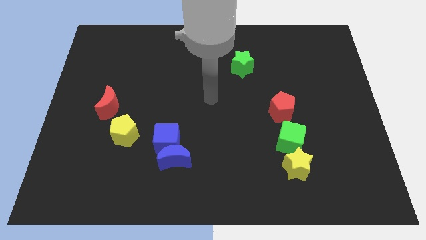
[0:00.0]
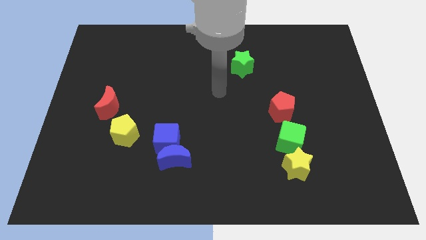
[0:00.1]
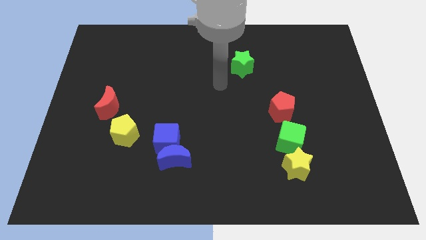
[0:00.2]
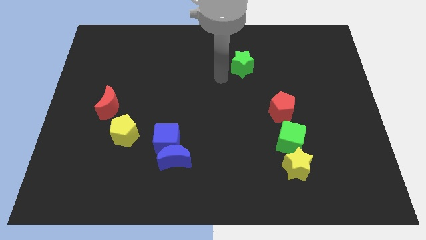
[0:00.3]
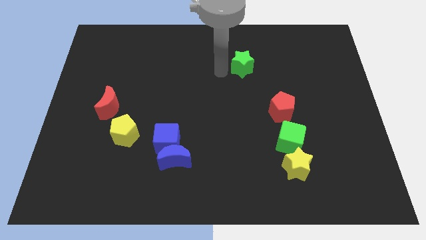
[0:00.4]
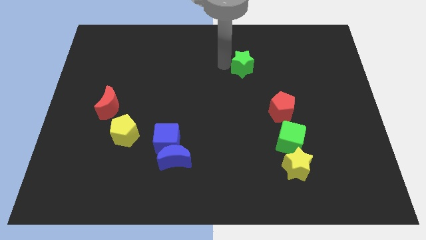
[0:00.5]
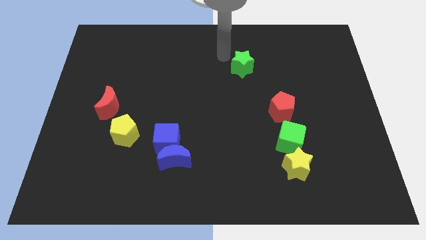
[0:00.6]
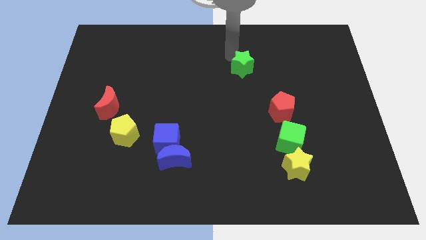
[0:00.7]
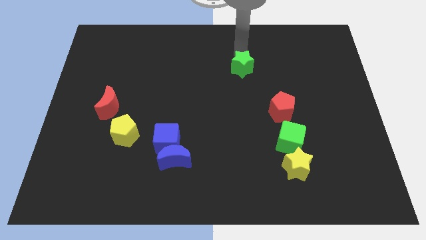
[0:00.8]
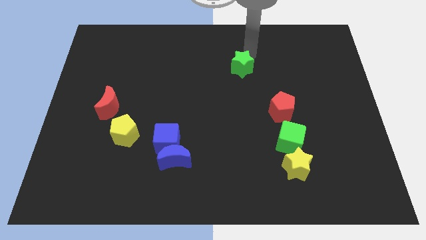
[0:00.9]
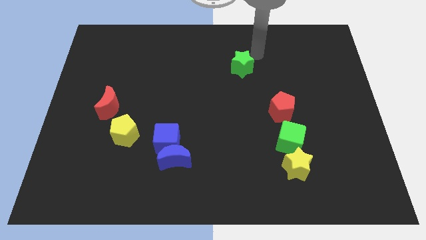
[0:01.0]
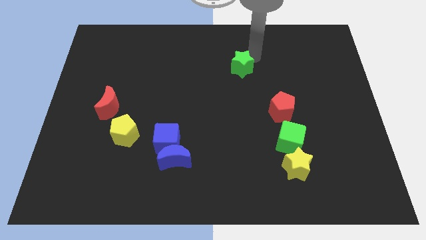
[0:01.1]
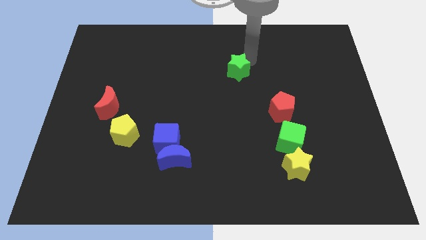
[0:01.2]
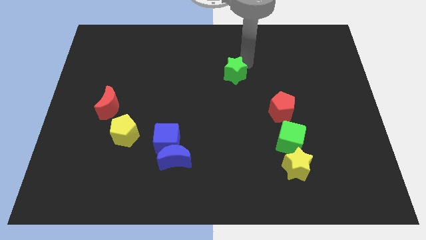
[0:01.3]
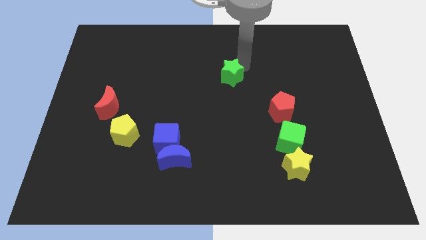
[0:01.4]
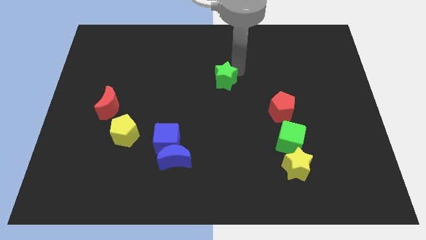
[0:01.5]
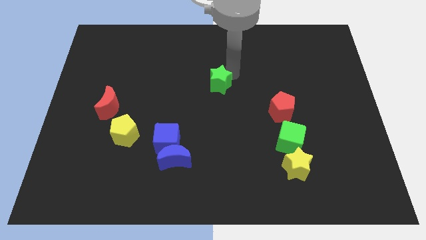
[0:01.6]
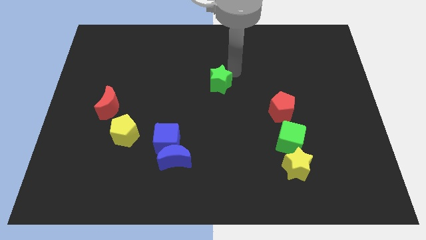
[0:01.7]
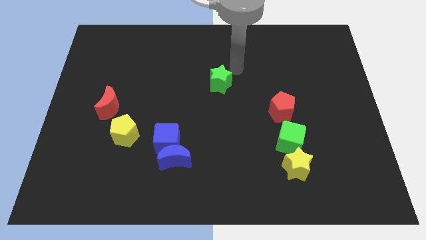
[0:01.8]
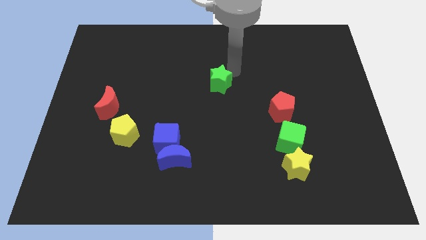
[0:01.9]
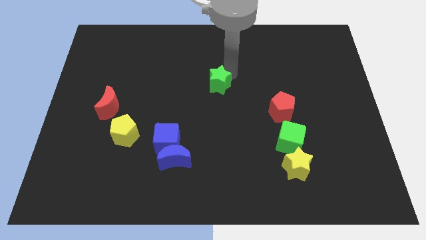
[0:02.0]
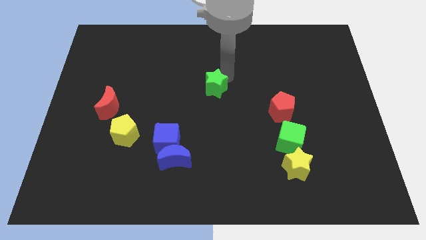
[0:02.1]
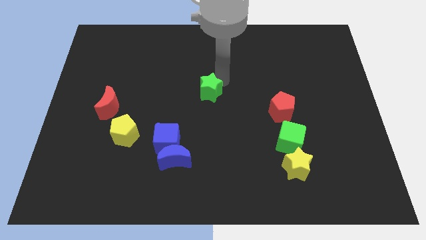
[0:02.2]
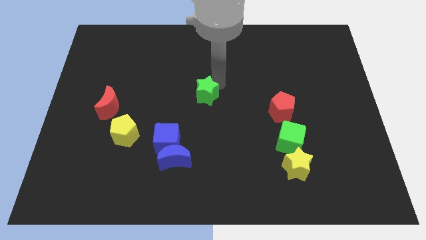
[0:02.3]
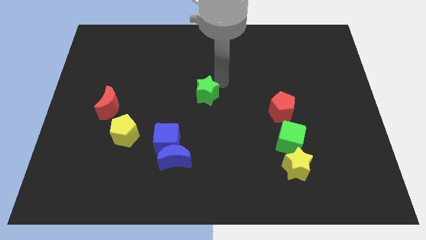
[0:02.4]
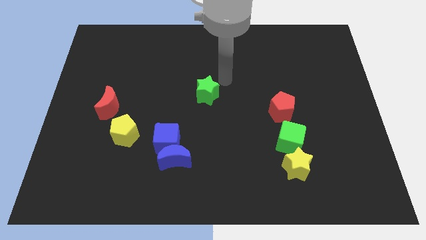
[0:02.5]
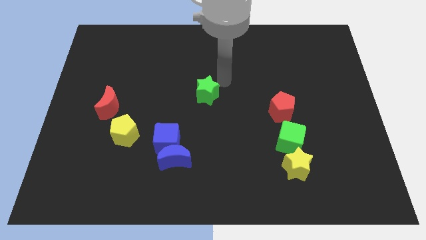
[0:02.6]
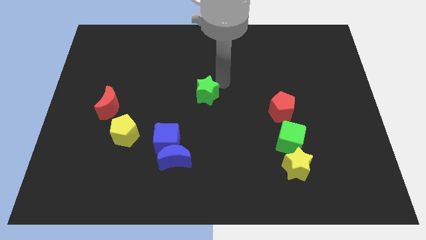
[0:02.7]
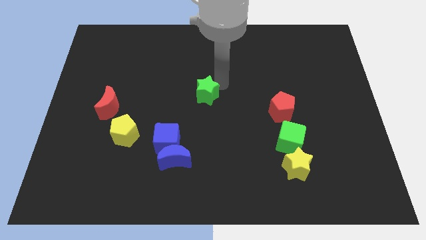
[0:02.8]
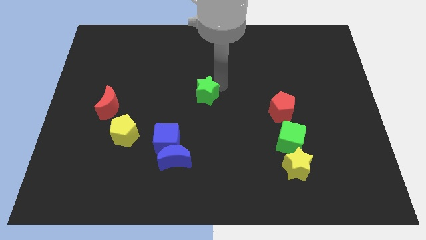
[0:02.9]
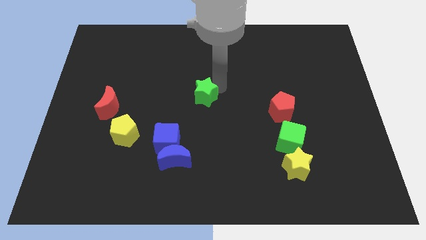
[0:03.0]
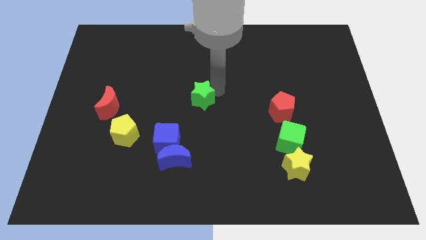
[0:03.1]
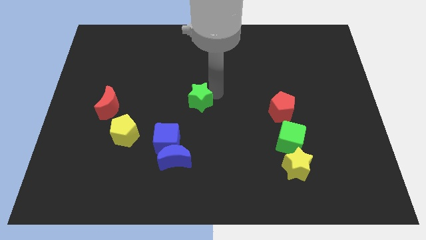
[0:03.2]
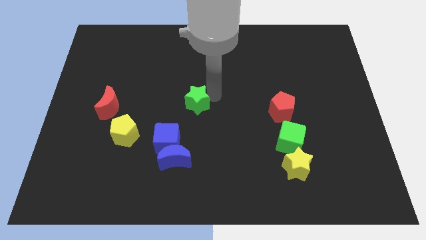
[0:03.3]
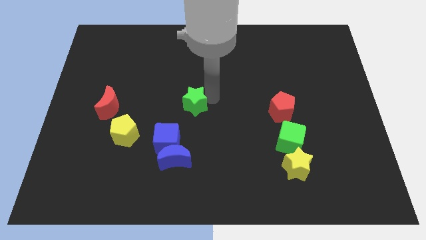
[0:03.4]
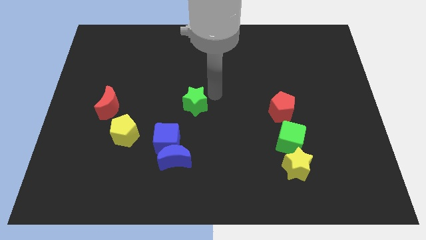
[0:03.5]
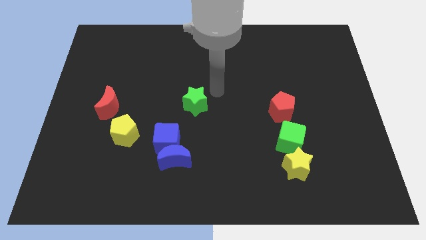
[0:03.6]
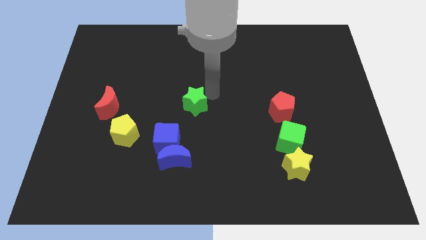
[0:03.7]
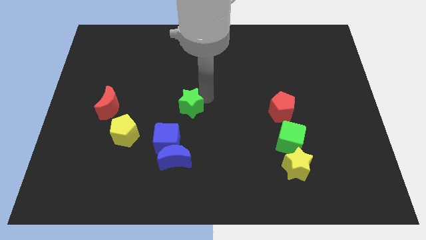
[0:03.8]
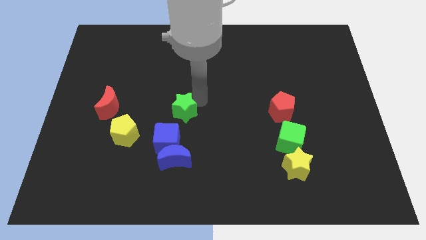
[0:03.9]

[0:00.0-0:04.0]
push the green star downwards and left

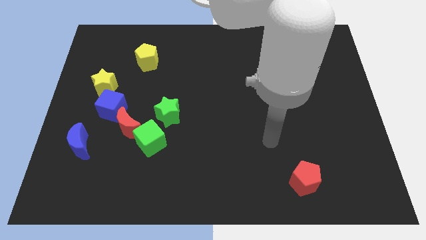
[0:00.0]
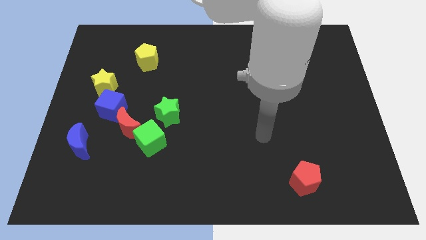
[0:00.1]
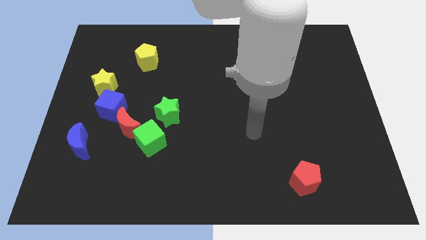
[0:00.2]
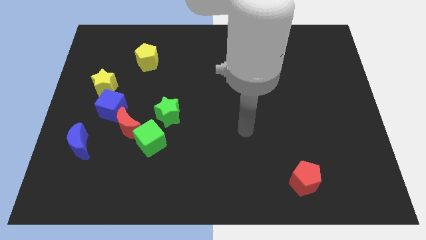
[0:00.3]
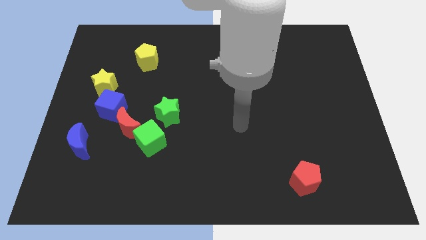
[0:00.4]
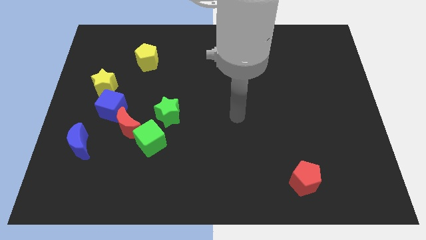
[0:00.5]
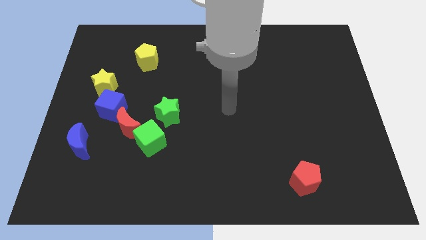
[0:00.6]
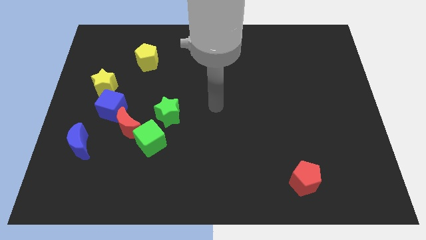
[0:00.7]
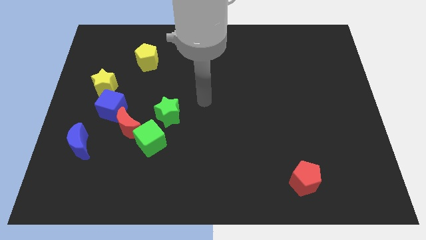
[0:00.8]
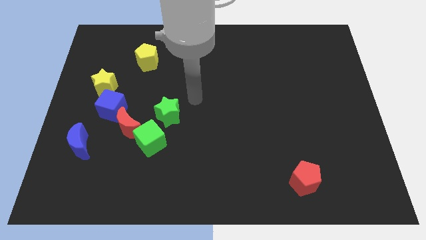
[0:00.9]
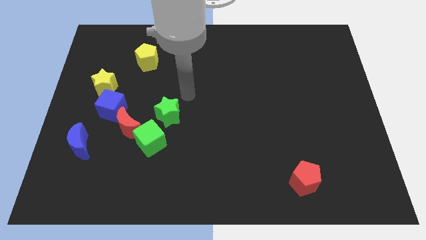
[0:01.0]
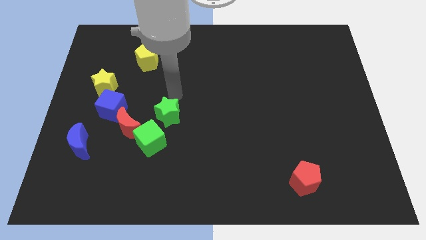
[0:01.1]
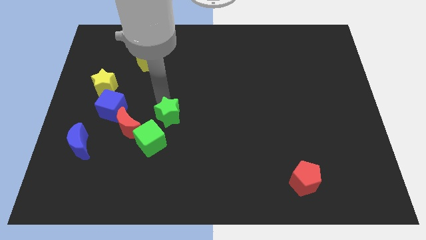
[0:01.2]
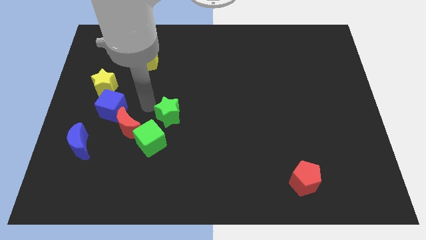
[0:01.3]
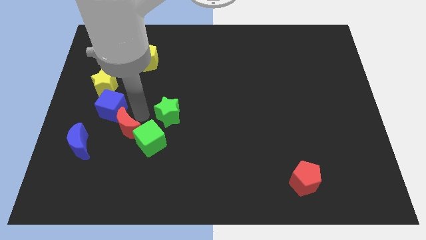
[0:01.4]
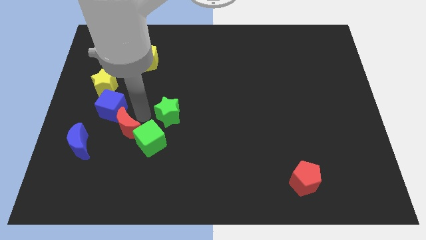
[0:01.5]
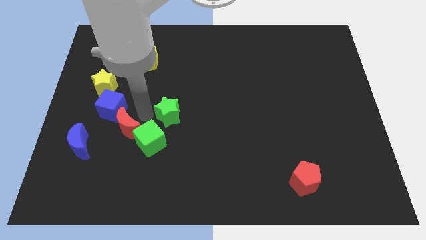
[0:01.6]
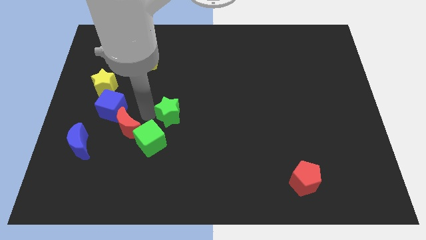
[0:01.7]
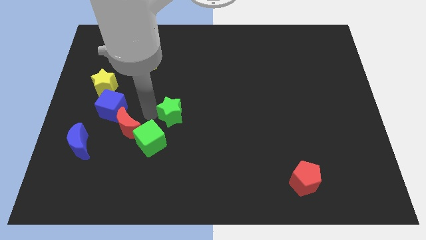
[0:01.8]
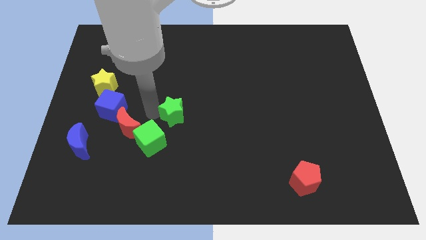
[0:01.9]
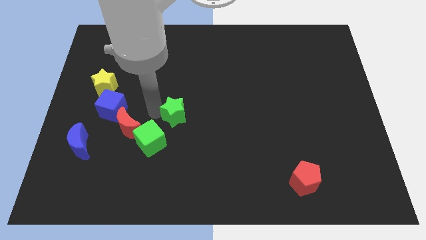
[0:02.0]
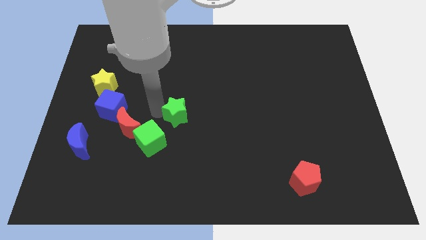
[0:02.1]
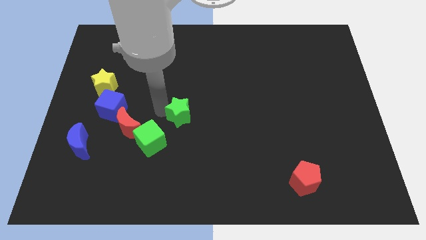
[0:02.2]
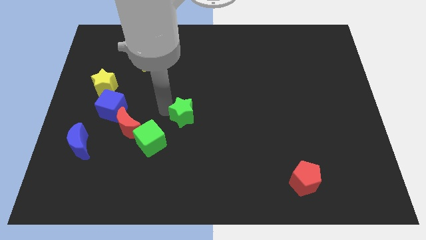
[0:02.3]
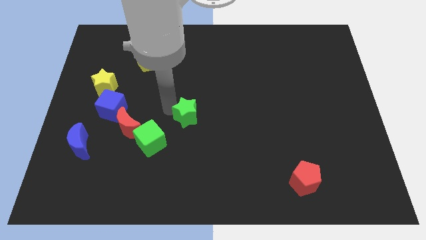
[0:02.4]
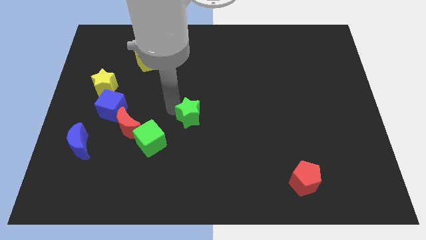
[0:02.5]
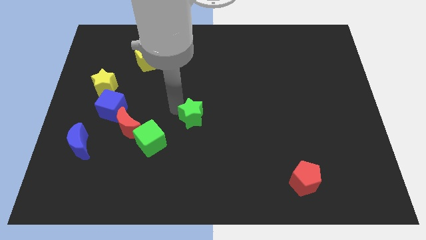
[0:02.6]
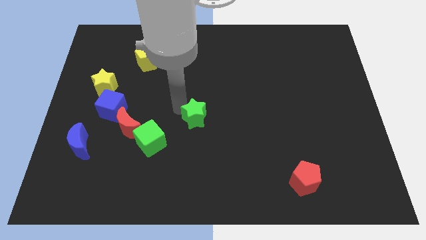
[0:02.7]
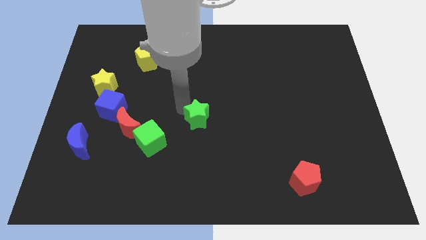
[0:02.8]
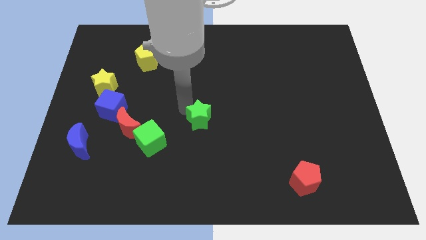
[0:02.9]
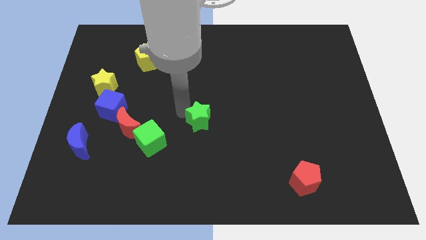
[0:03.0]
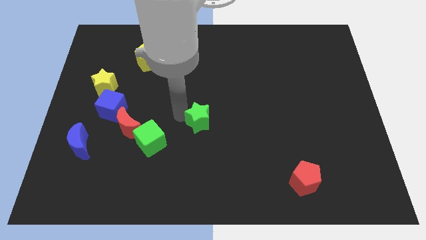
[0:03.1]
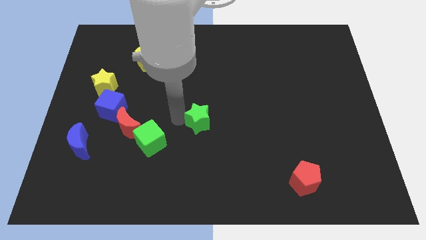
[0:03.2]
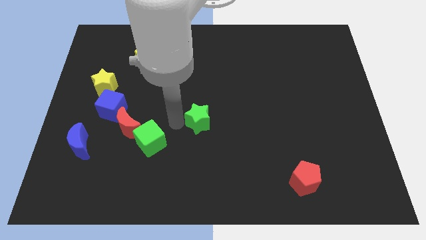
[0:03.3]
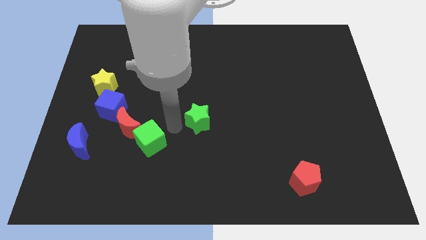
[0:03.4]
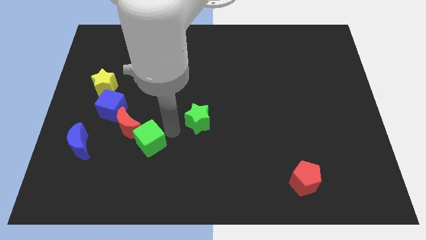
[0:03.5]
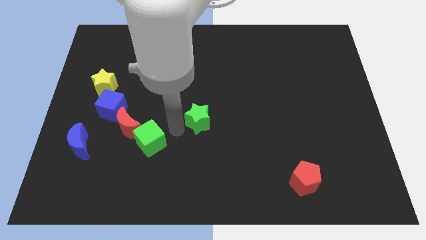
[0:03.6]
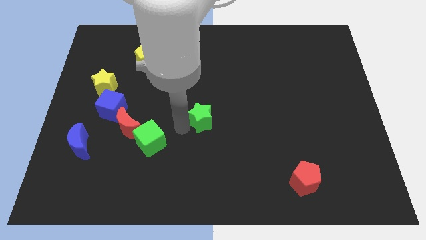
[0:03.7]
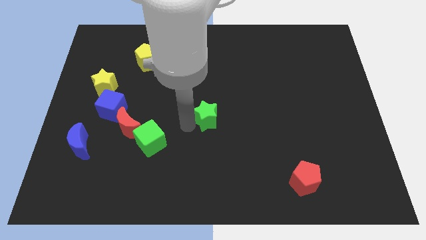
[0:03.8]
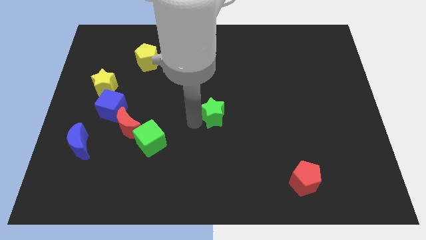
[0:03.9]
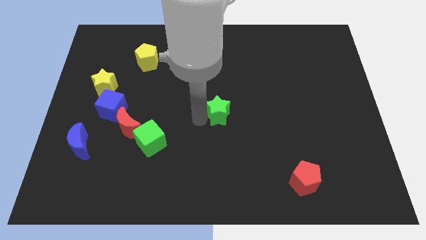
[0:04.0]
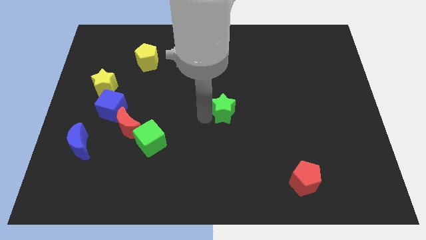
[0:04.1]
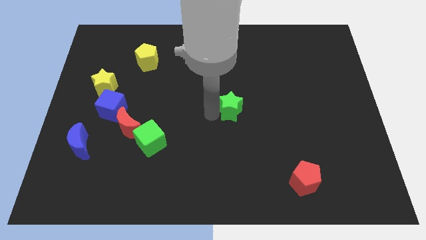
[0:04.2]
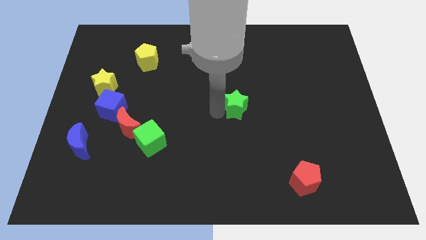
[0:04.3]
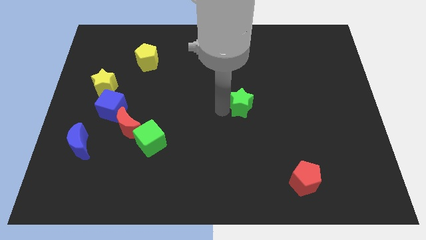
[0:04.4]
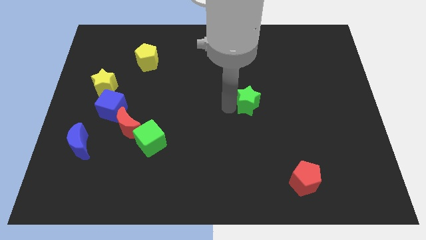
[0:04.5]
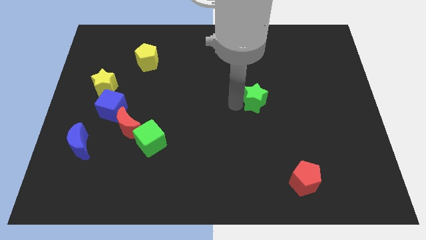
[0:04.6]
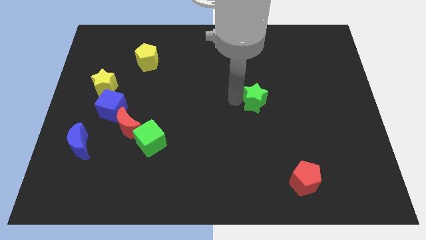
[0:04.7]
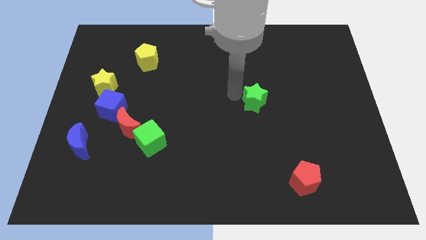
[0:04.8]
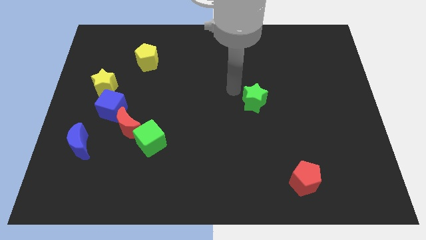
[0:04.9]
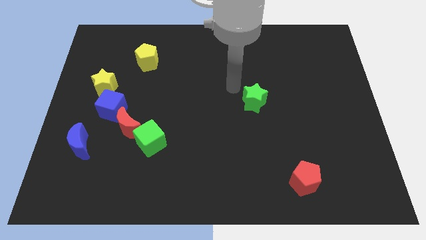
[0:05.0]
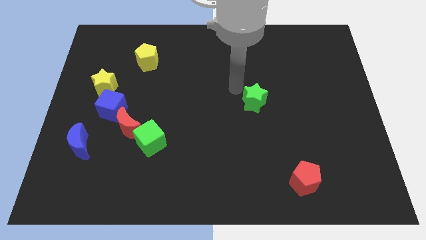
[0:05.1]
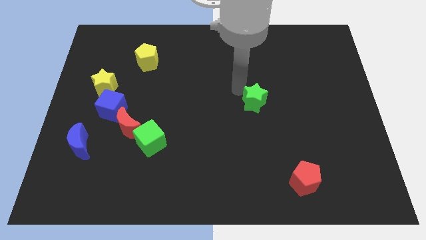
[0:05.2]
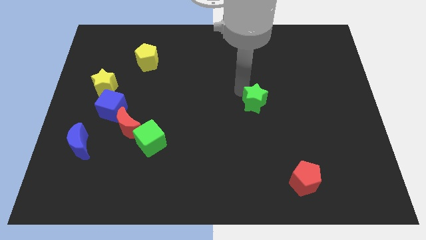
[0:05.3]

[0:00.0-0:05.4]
slide the green star to the right
